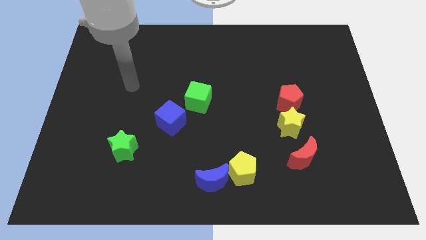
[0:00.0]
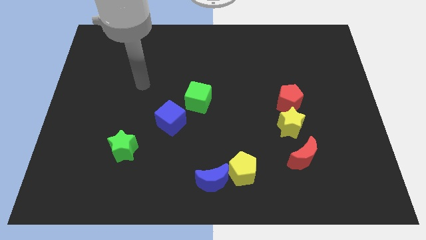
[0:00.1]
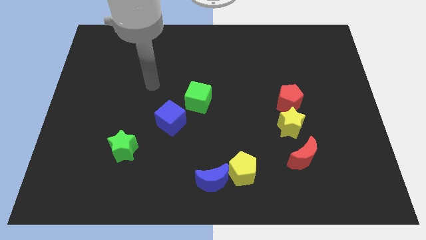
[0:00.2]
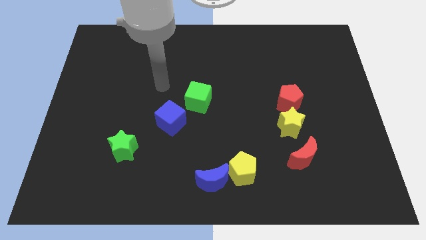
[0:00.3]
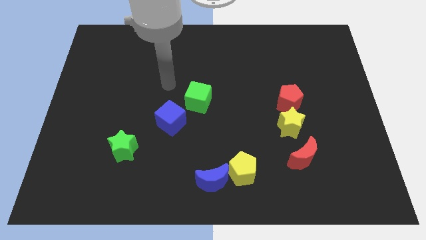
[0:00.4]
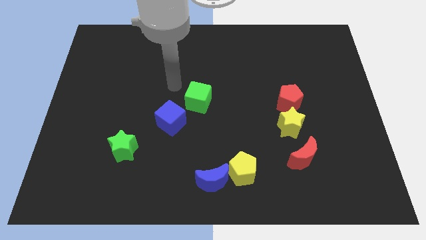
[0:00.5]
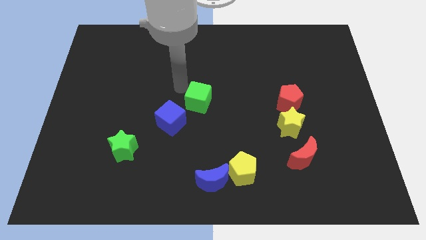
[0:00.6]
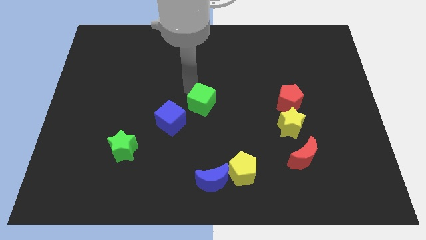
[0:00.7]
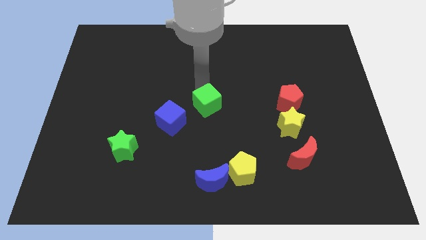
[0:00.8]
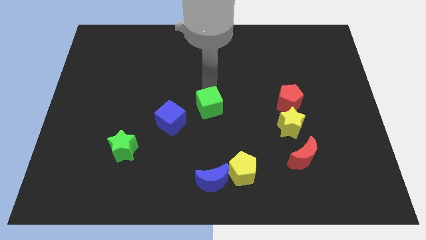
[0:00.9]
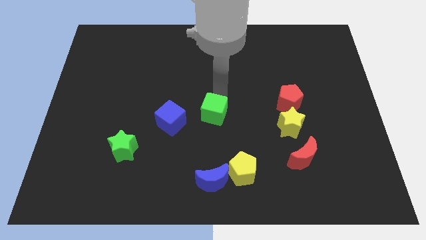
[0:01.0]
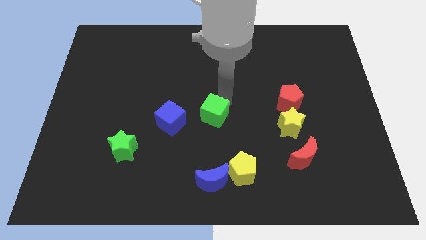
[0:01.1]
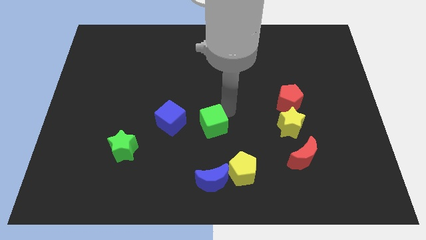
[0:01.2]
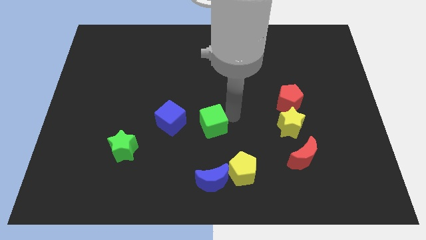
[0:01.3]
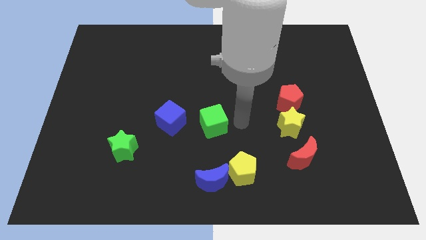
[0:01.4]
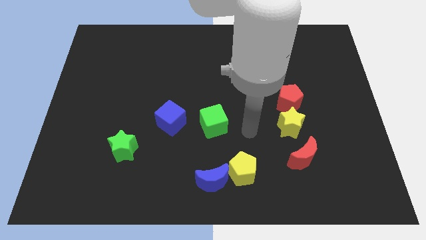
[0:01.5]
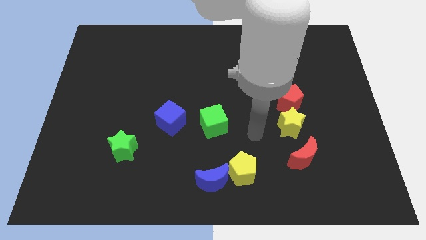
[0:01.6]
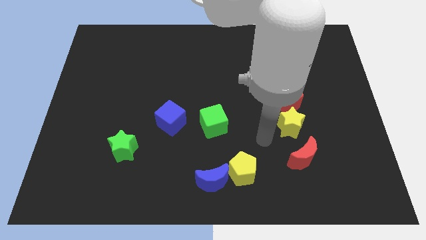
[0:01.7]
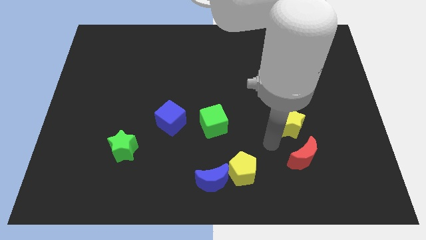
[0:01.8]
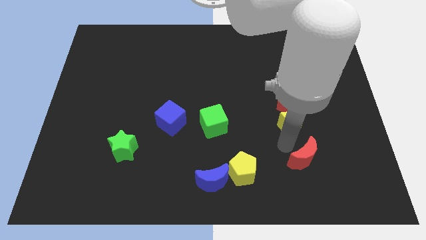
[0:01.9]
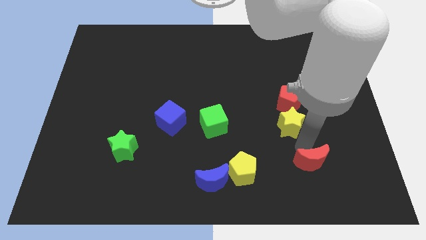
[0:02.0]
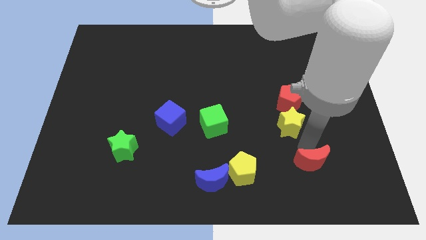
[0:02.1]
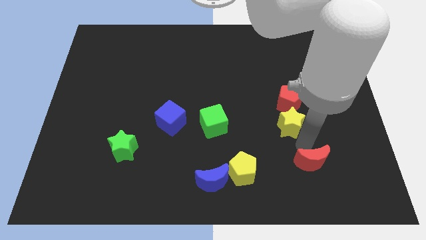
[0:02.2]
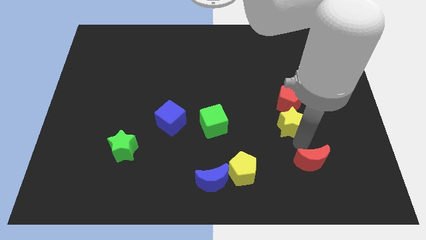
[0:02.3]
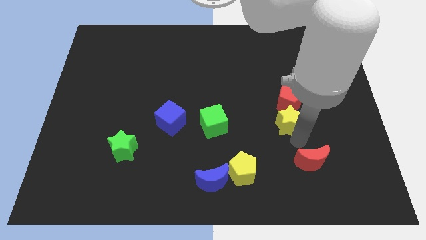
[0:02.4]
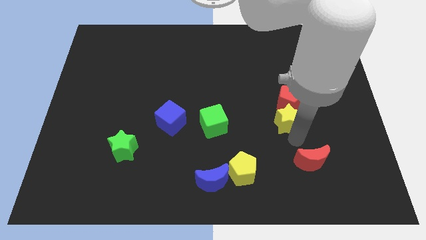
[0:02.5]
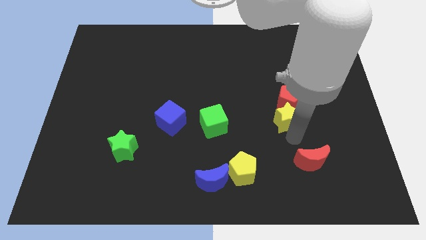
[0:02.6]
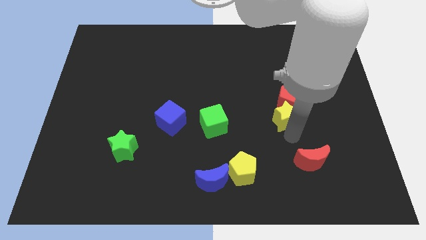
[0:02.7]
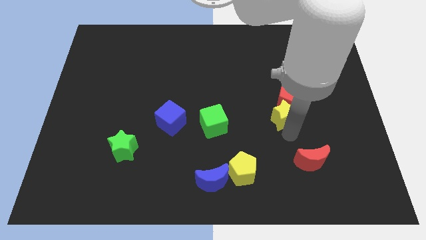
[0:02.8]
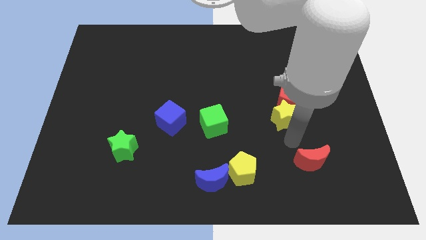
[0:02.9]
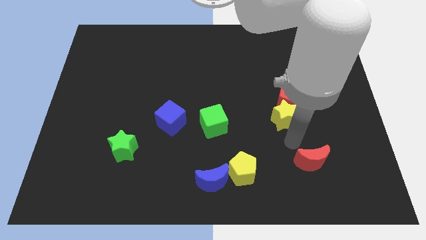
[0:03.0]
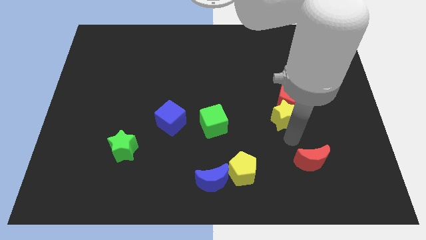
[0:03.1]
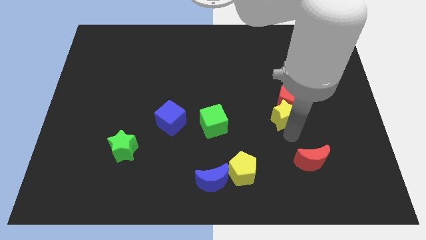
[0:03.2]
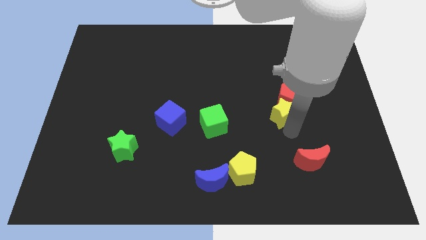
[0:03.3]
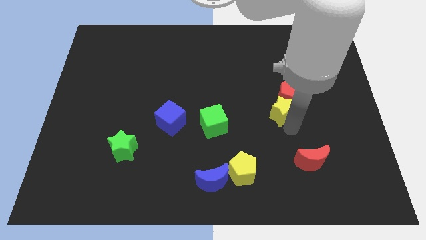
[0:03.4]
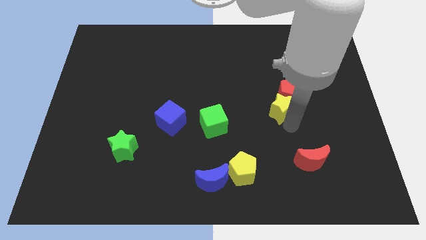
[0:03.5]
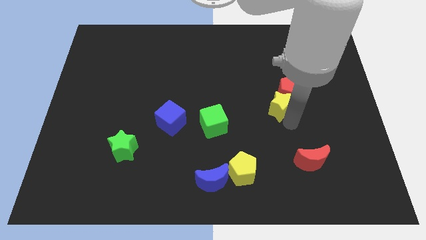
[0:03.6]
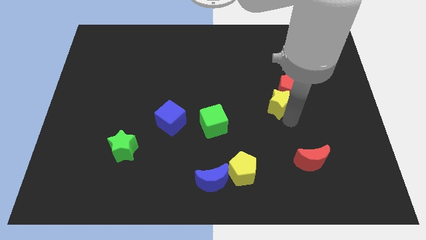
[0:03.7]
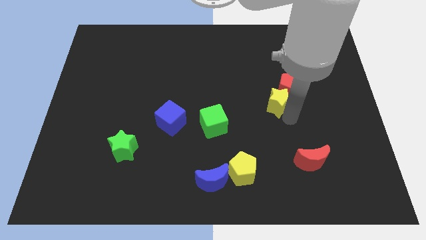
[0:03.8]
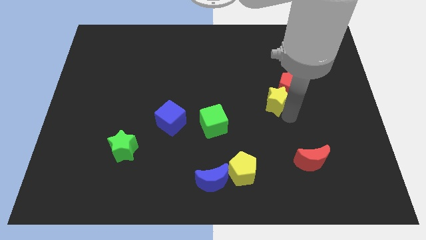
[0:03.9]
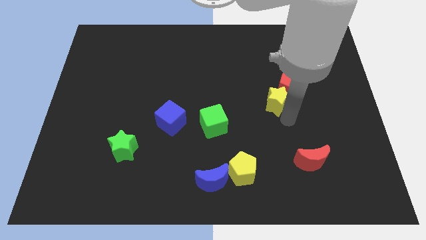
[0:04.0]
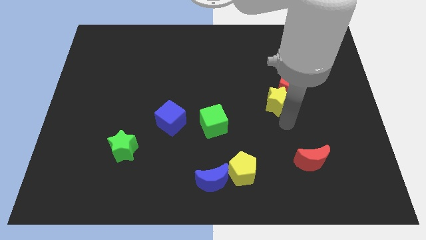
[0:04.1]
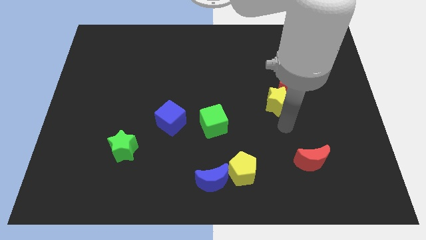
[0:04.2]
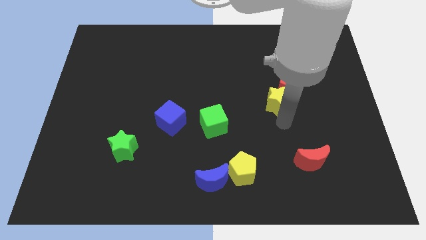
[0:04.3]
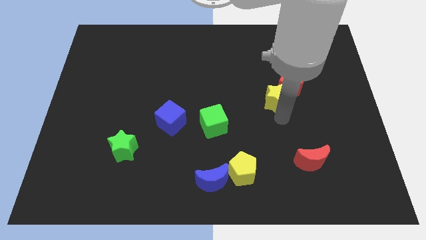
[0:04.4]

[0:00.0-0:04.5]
slide the yellow star up slightly

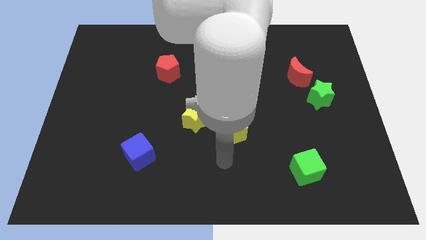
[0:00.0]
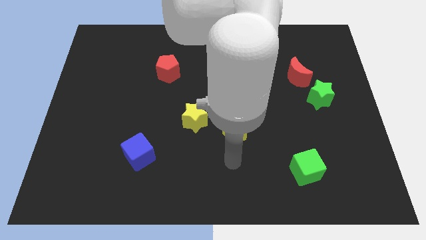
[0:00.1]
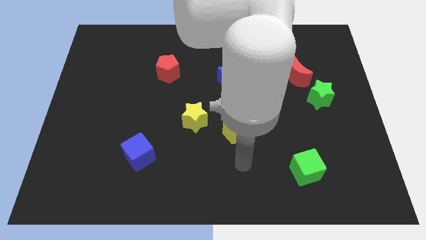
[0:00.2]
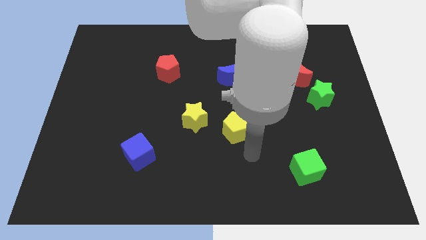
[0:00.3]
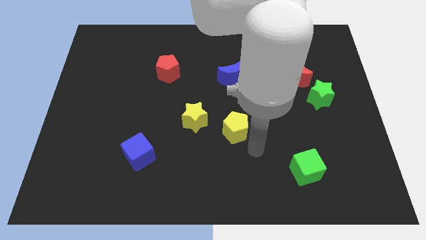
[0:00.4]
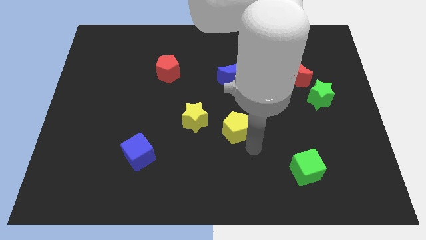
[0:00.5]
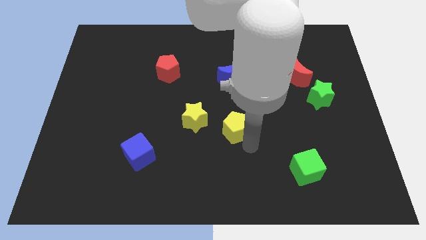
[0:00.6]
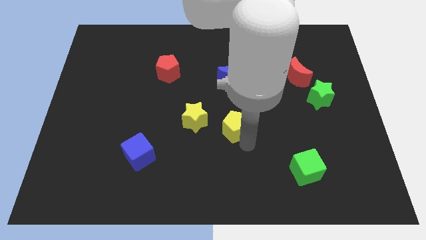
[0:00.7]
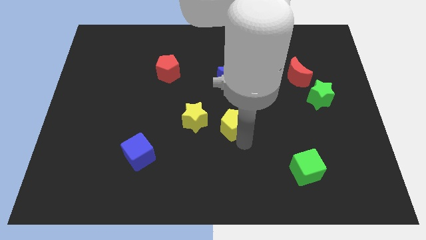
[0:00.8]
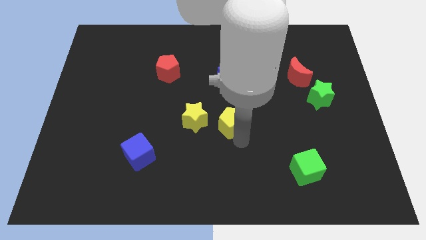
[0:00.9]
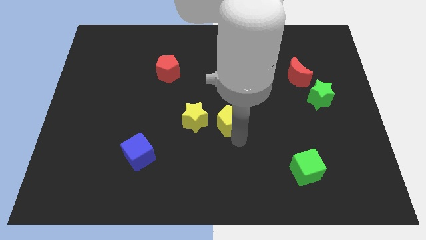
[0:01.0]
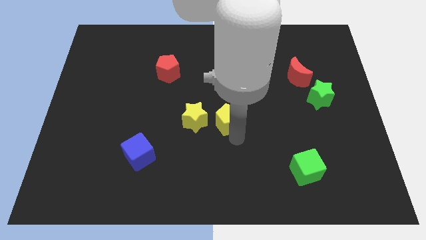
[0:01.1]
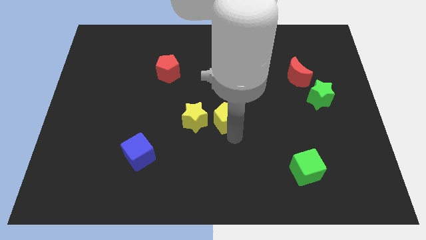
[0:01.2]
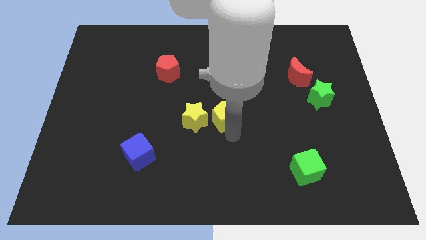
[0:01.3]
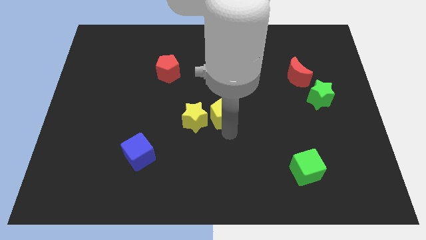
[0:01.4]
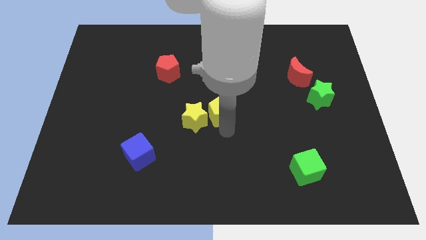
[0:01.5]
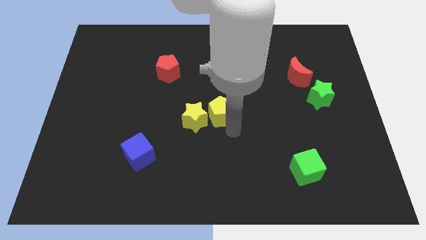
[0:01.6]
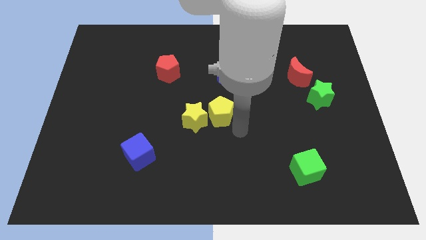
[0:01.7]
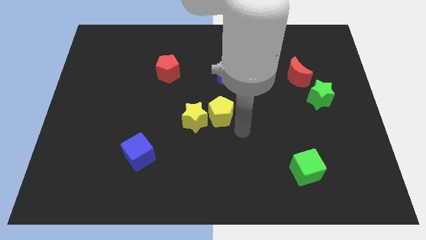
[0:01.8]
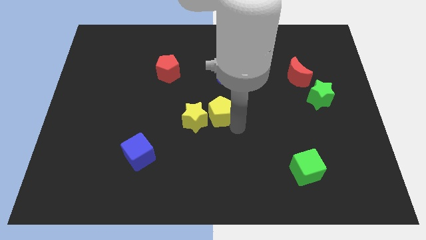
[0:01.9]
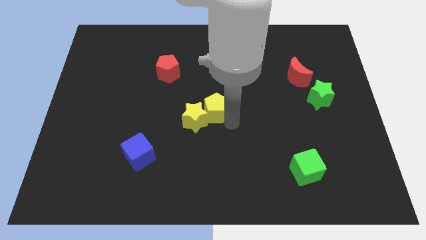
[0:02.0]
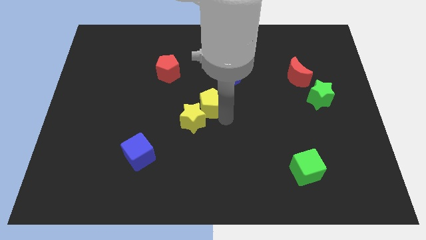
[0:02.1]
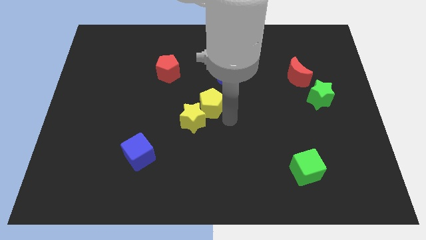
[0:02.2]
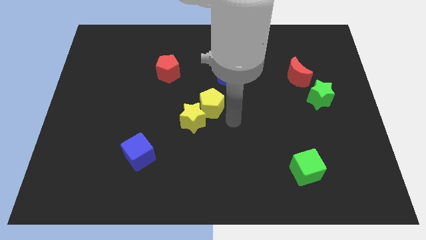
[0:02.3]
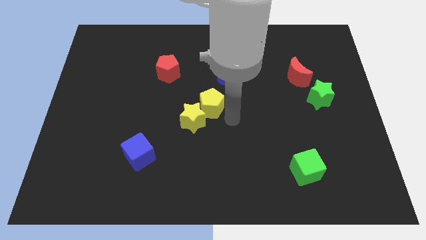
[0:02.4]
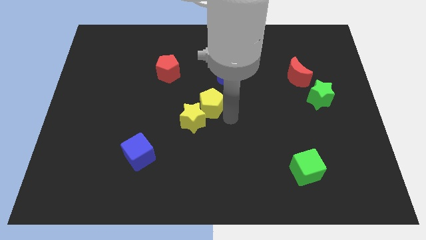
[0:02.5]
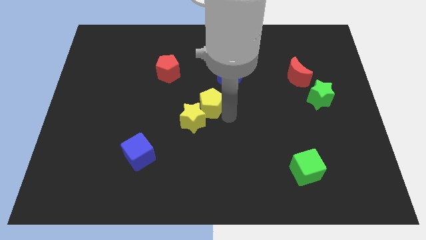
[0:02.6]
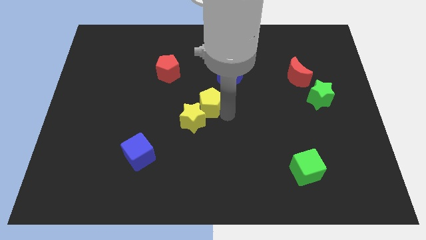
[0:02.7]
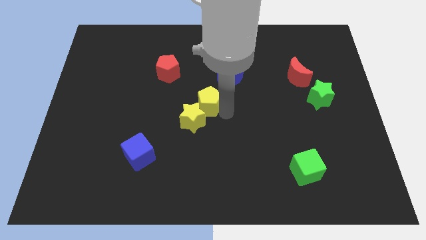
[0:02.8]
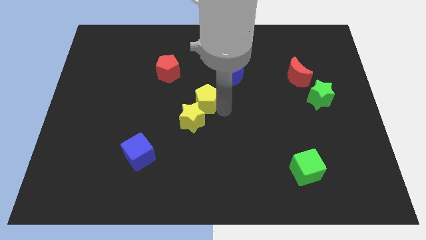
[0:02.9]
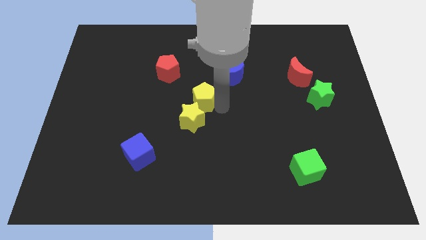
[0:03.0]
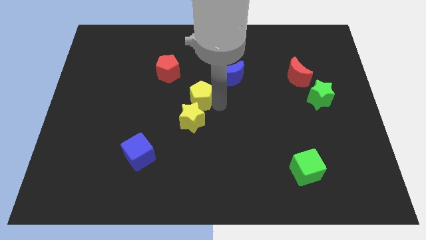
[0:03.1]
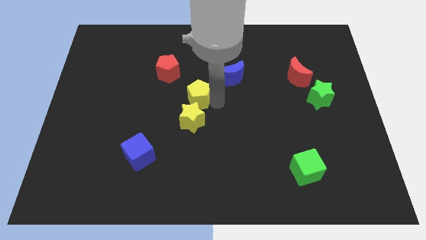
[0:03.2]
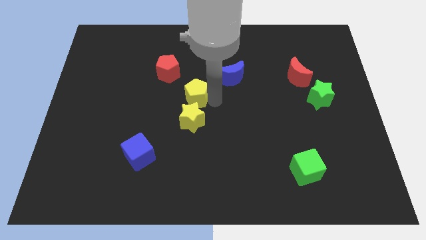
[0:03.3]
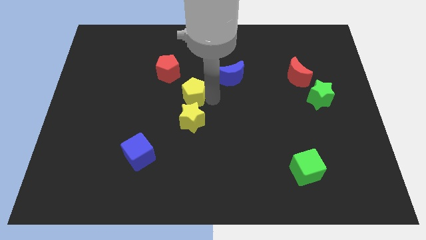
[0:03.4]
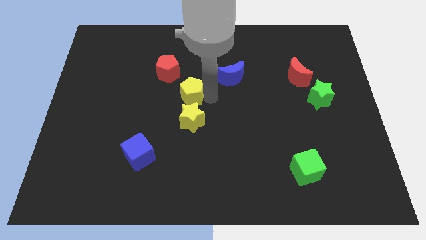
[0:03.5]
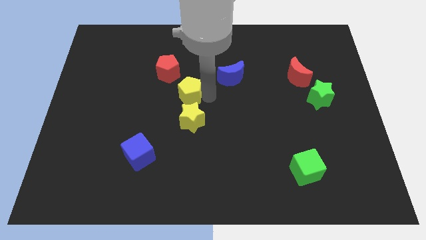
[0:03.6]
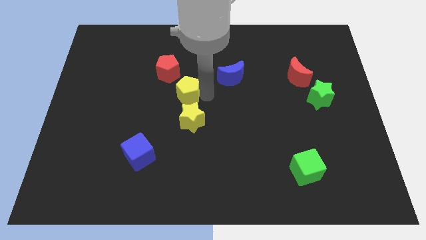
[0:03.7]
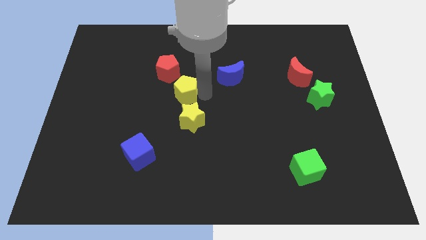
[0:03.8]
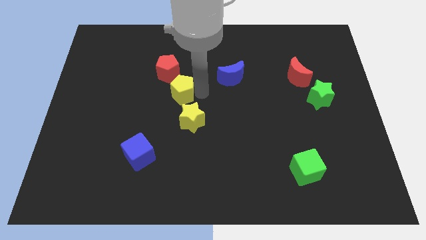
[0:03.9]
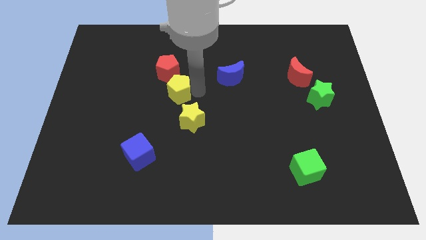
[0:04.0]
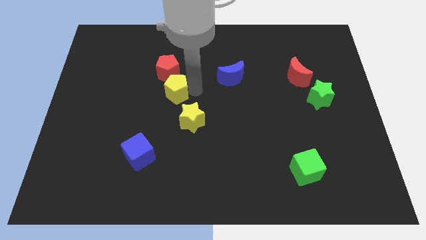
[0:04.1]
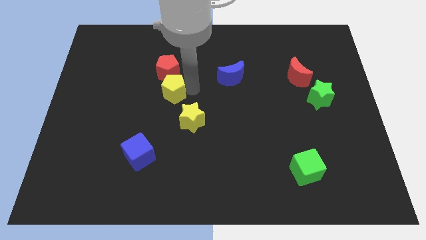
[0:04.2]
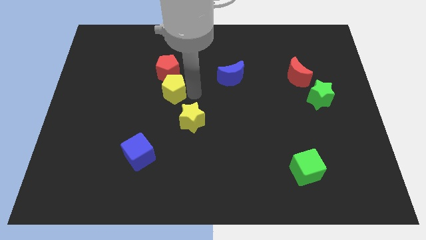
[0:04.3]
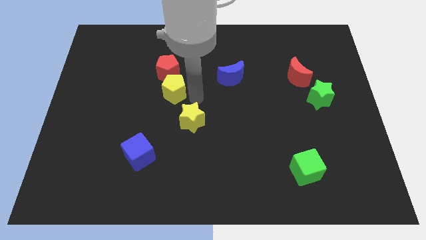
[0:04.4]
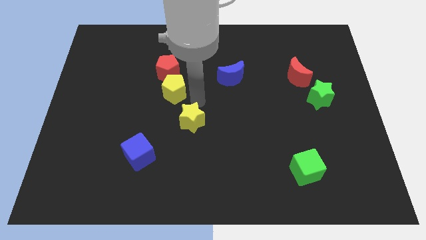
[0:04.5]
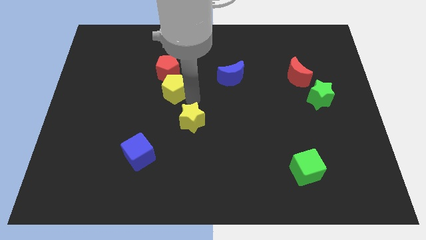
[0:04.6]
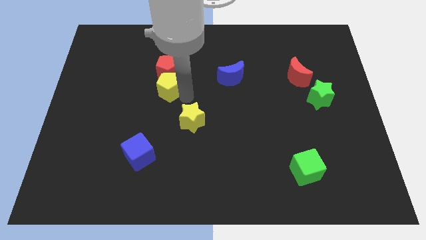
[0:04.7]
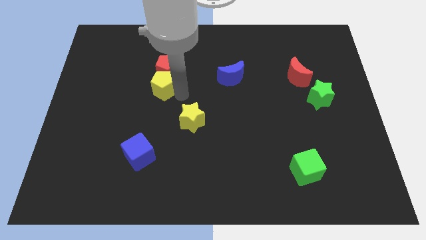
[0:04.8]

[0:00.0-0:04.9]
slide the yellow pentagon diagonally upwards and left
